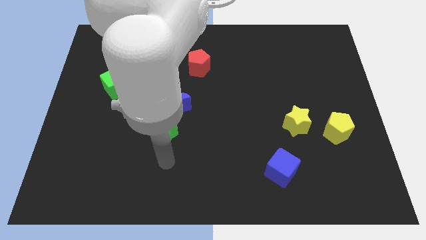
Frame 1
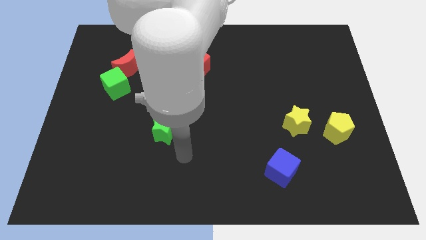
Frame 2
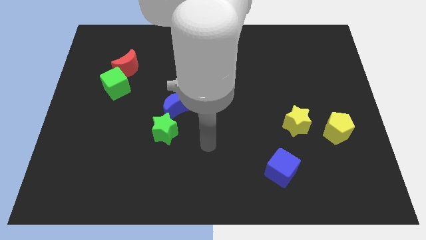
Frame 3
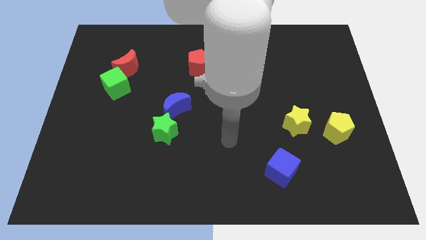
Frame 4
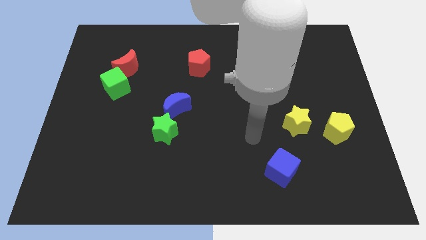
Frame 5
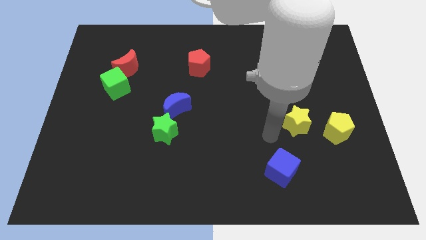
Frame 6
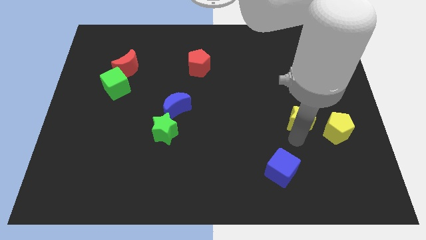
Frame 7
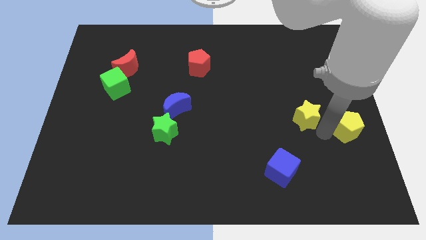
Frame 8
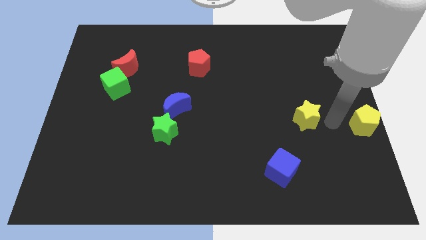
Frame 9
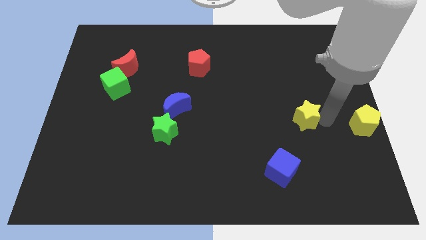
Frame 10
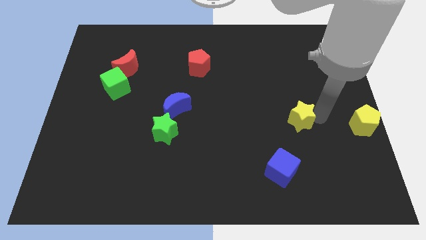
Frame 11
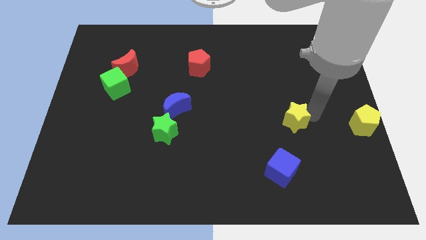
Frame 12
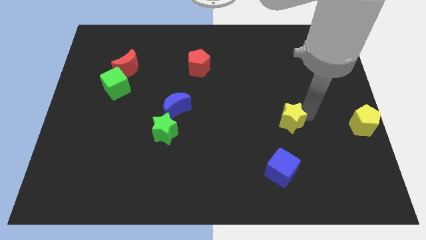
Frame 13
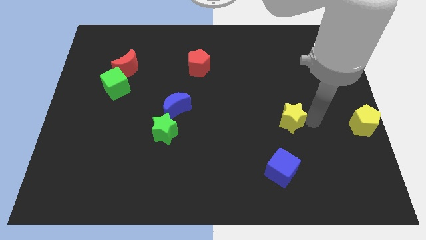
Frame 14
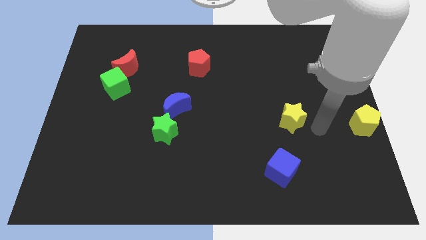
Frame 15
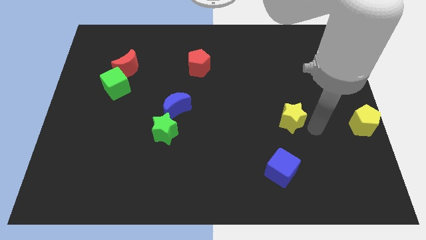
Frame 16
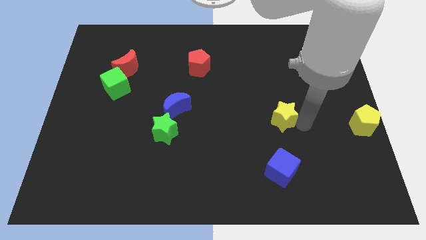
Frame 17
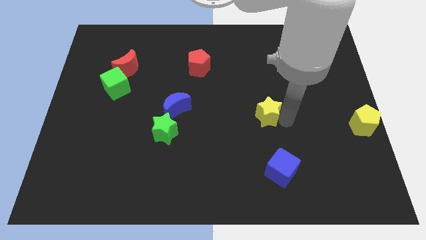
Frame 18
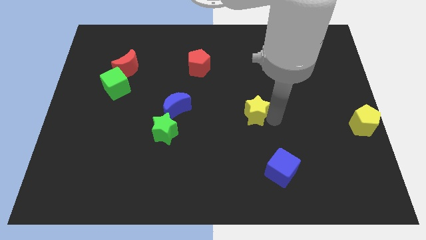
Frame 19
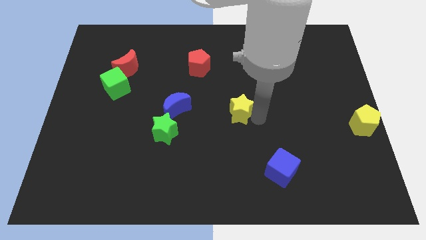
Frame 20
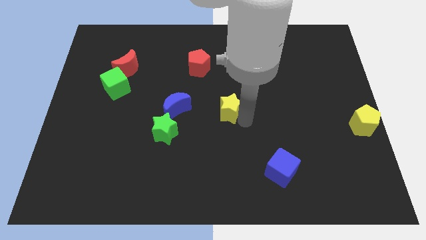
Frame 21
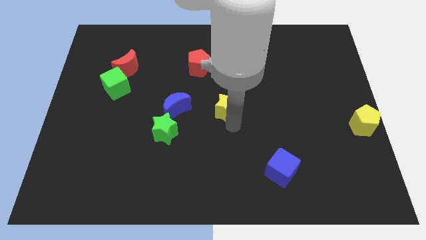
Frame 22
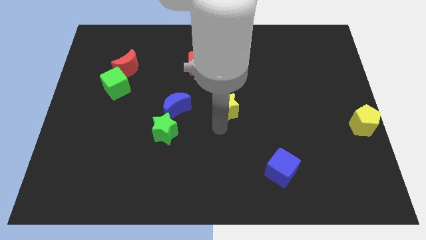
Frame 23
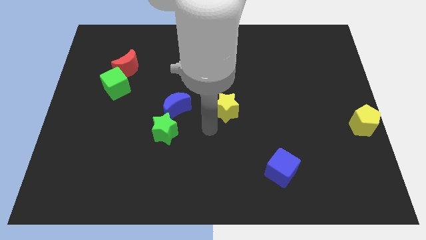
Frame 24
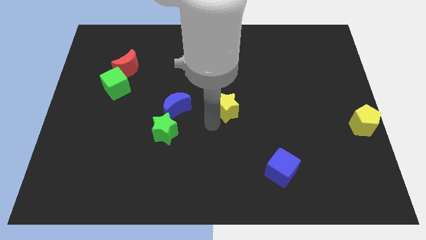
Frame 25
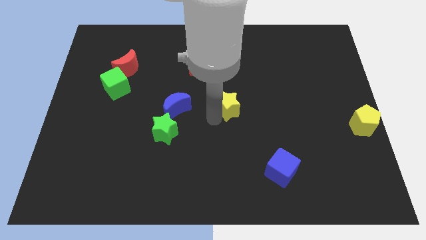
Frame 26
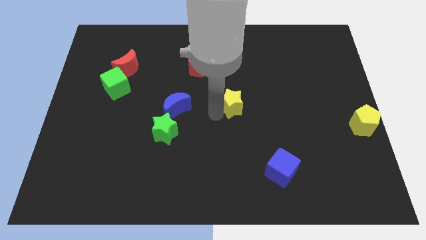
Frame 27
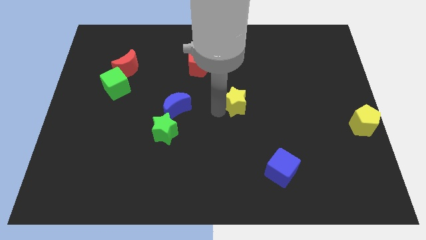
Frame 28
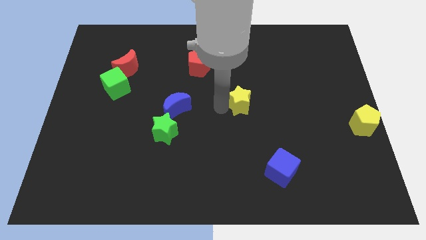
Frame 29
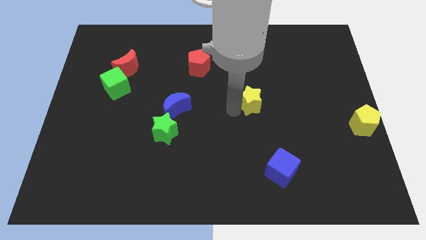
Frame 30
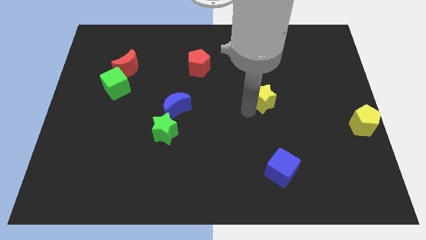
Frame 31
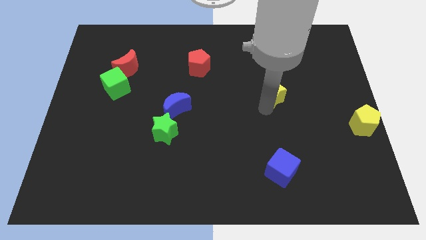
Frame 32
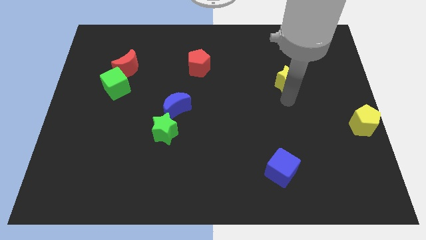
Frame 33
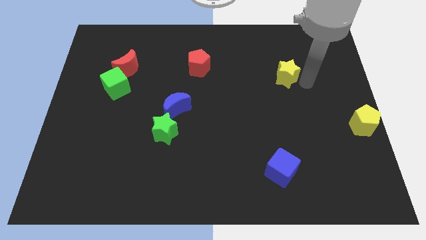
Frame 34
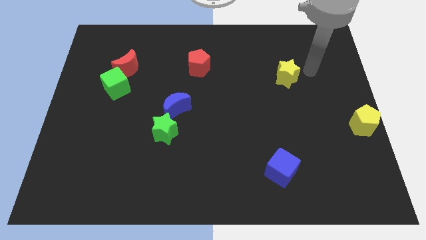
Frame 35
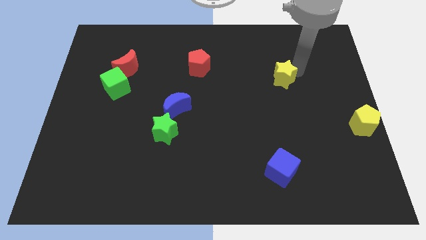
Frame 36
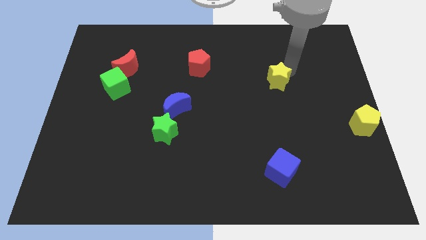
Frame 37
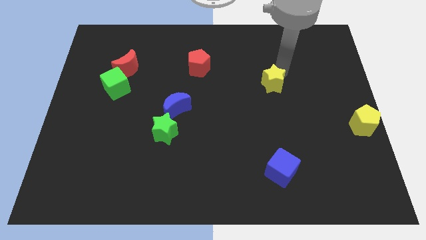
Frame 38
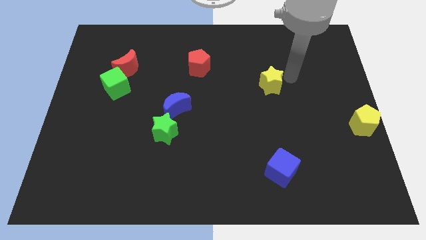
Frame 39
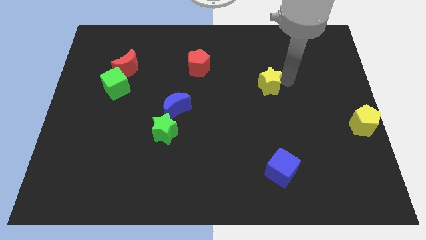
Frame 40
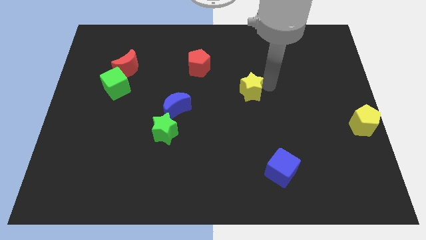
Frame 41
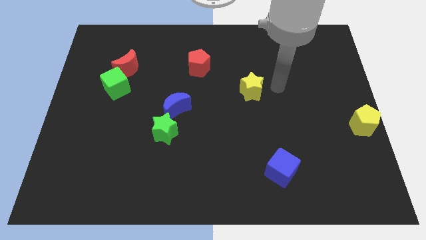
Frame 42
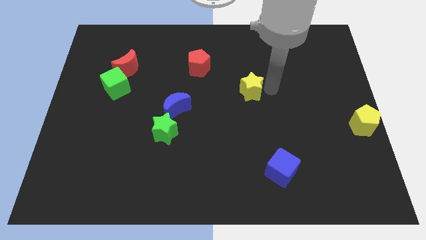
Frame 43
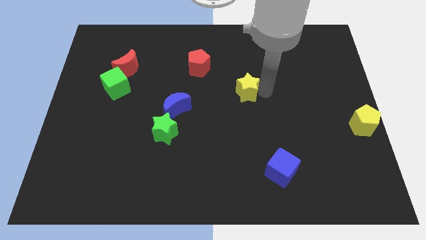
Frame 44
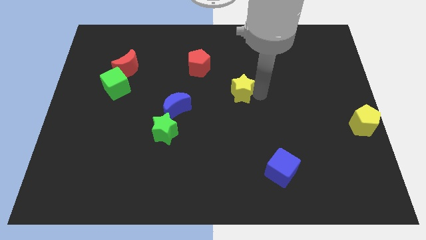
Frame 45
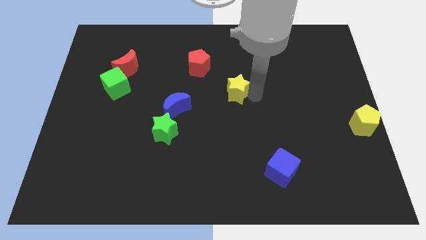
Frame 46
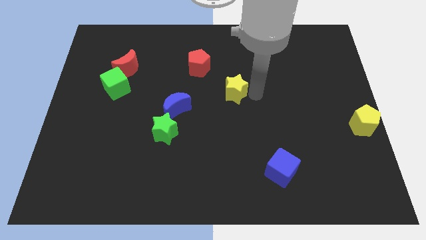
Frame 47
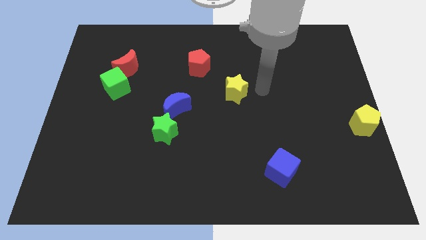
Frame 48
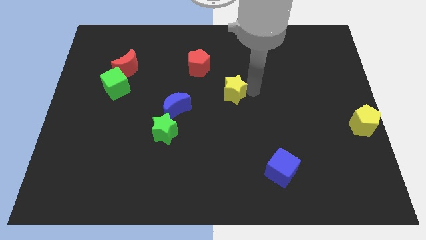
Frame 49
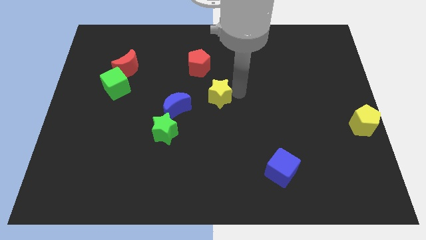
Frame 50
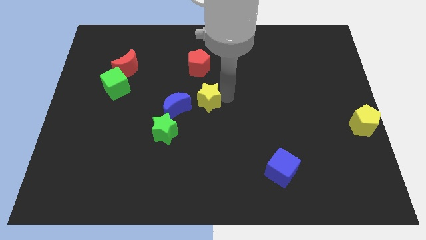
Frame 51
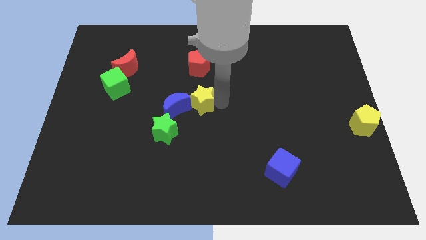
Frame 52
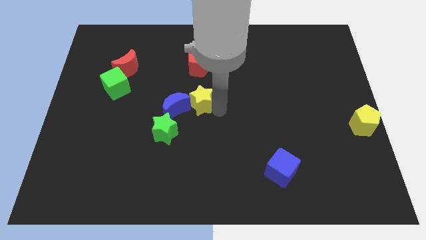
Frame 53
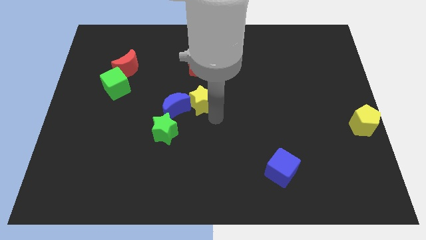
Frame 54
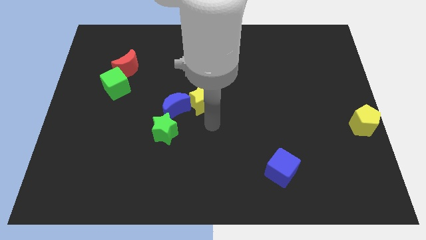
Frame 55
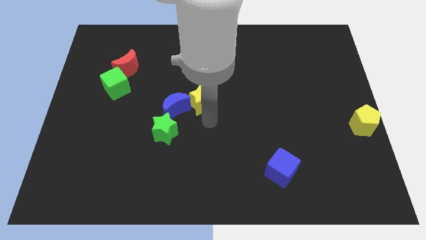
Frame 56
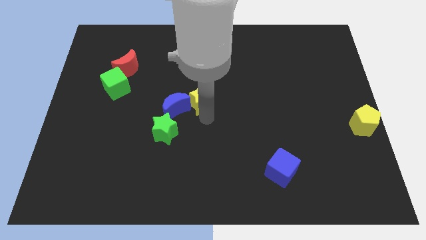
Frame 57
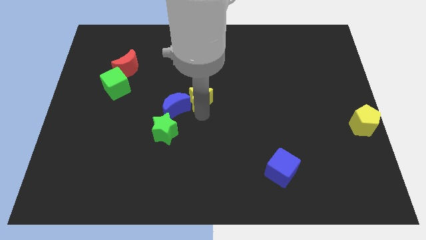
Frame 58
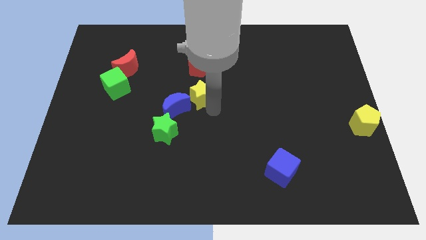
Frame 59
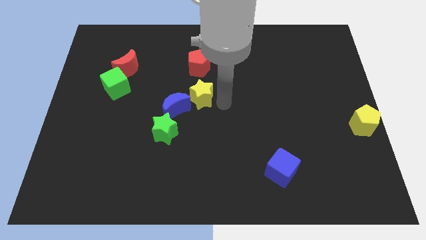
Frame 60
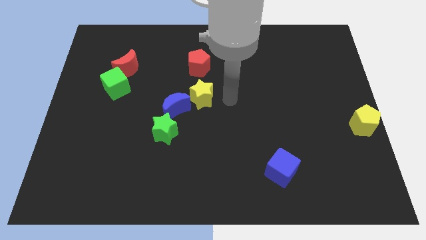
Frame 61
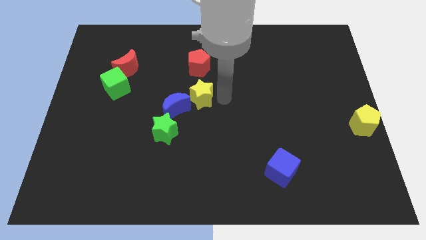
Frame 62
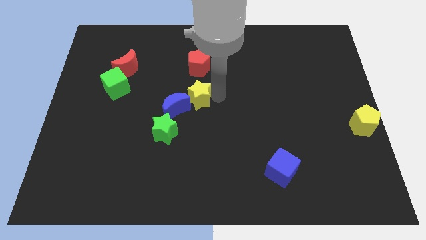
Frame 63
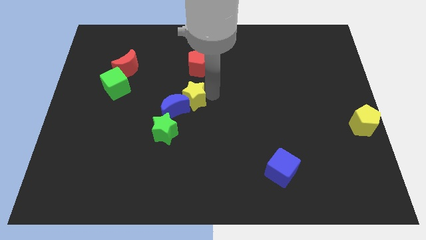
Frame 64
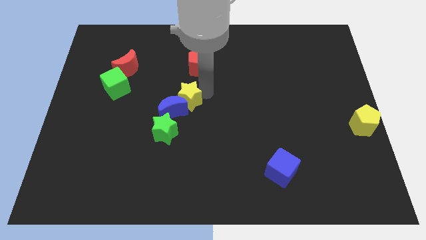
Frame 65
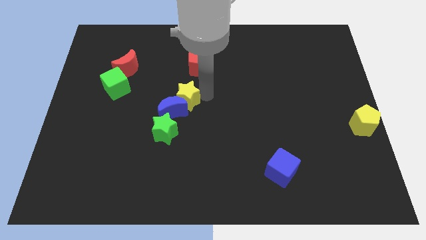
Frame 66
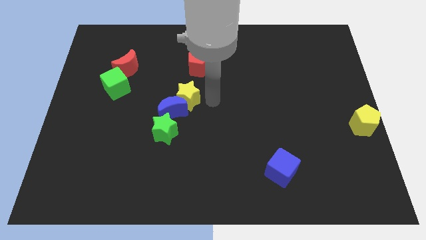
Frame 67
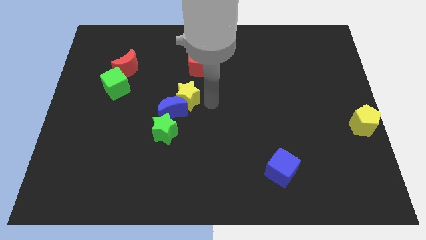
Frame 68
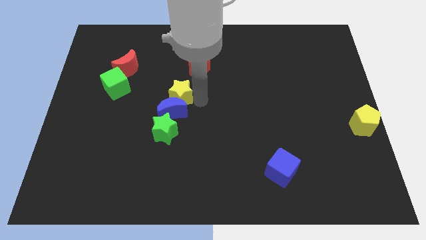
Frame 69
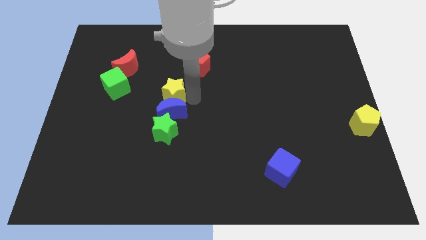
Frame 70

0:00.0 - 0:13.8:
slide the yellow star to the top left side of the blue moon
